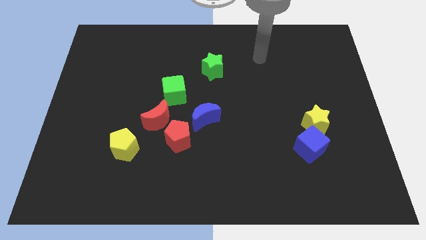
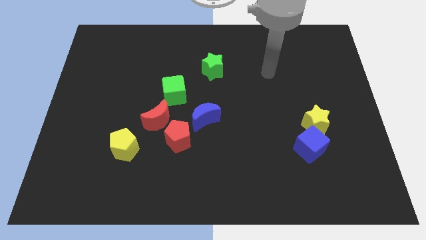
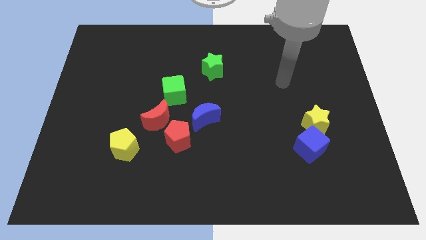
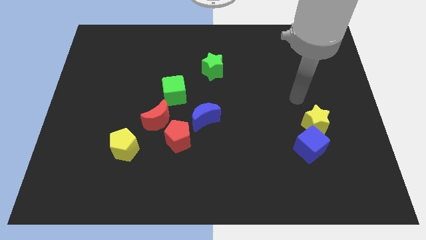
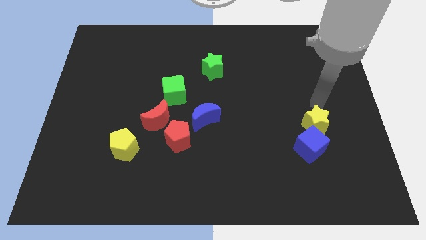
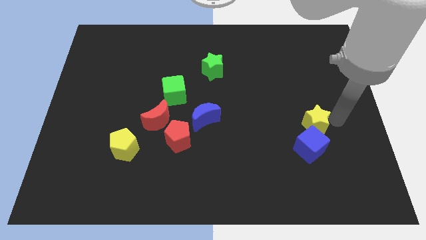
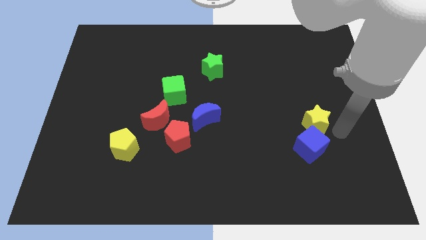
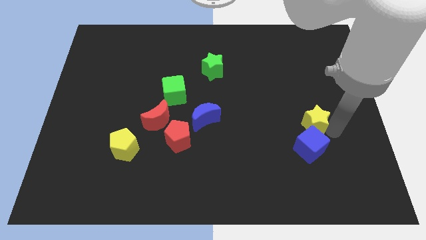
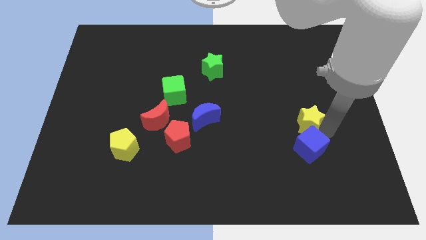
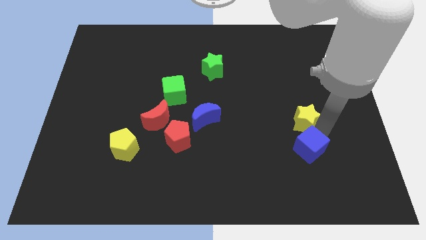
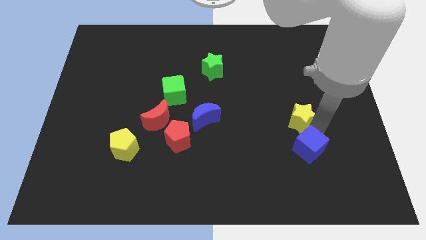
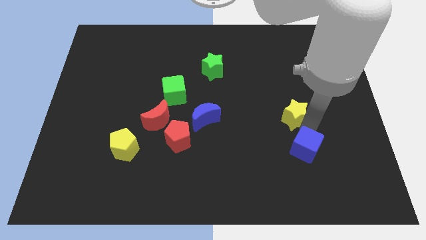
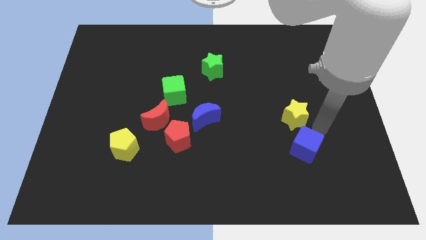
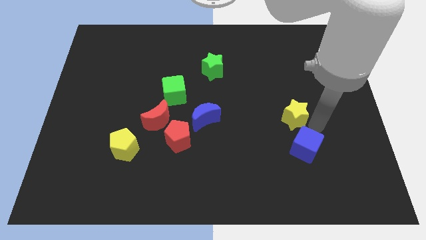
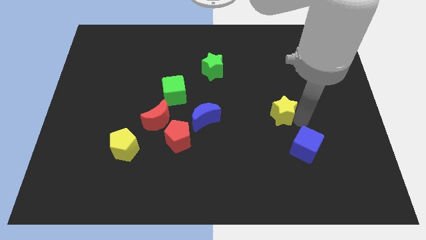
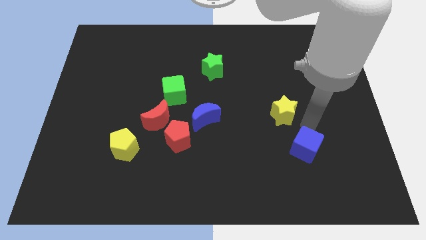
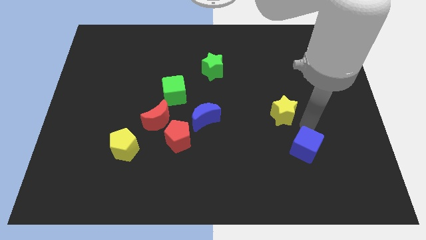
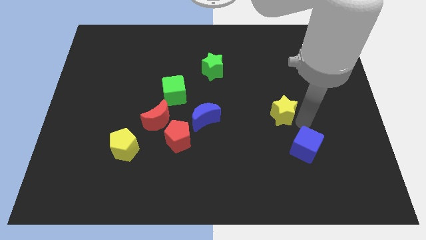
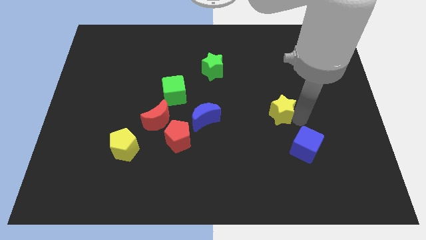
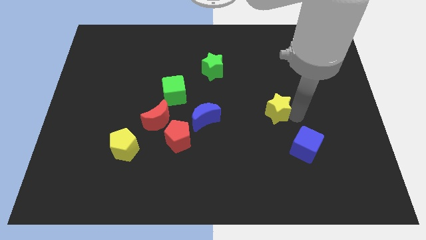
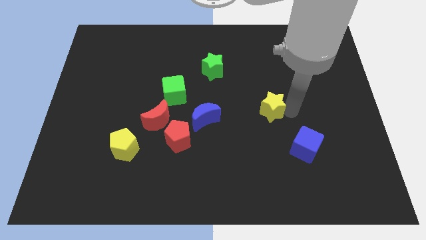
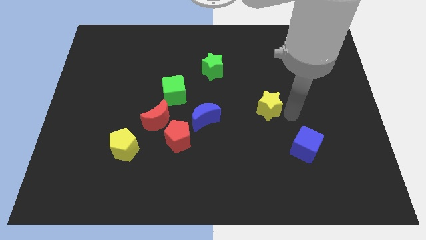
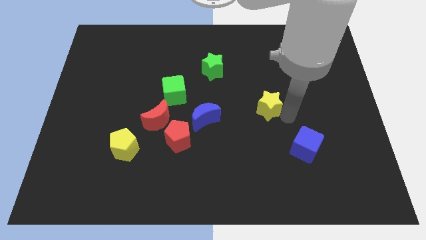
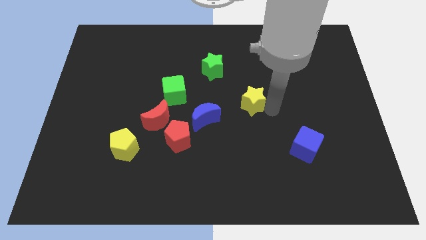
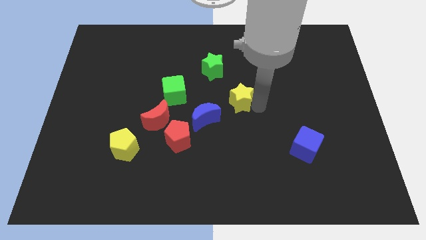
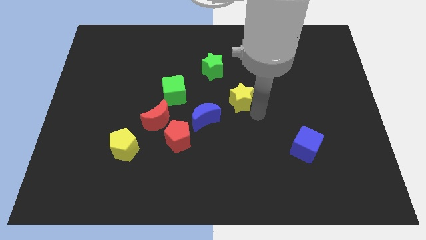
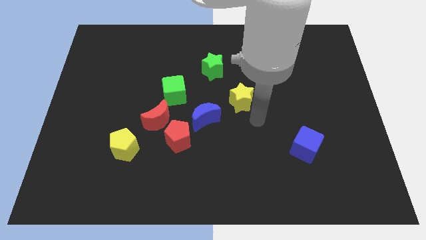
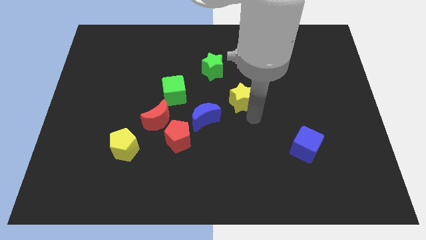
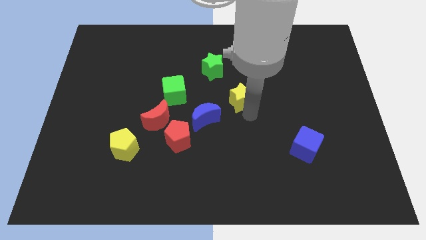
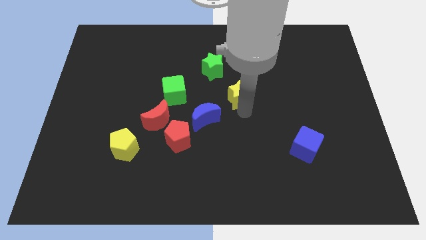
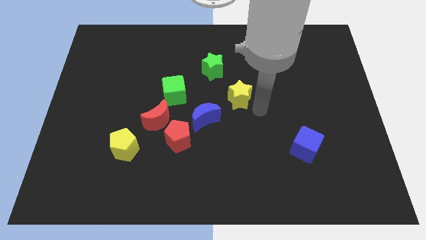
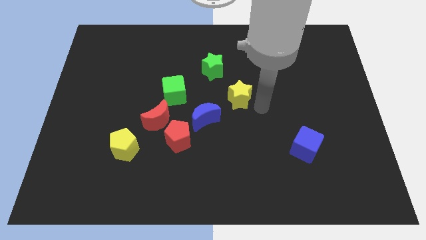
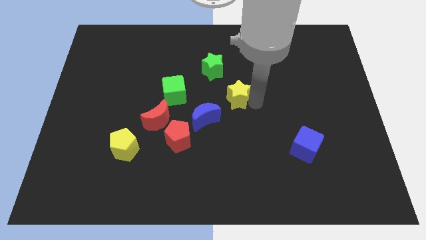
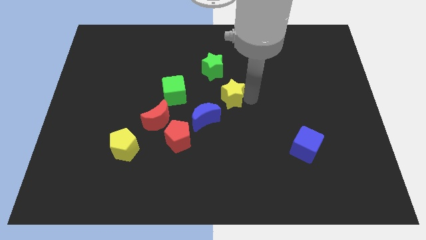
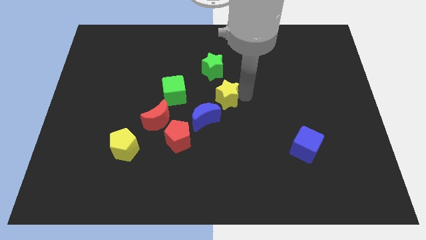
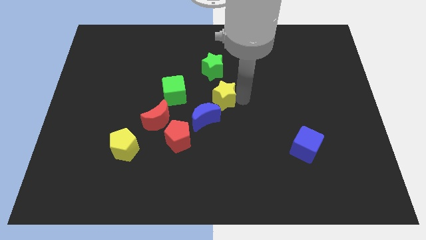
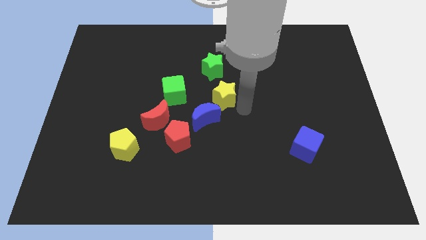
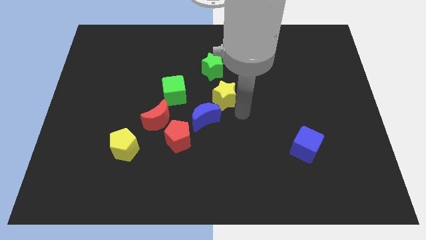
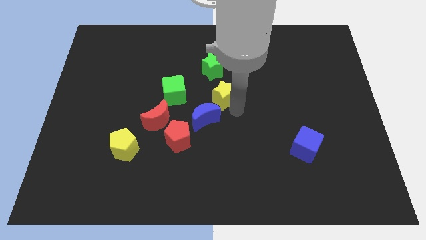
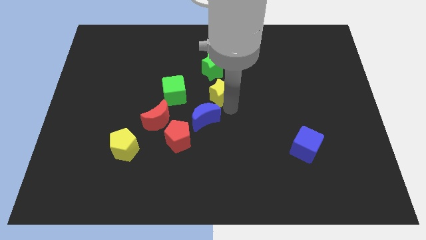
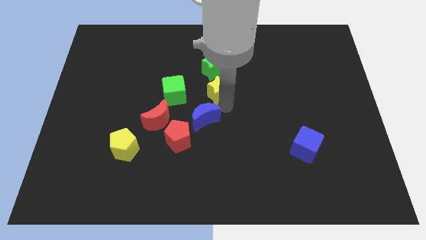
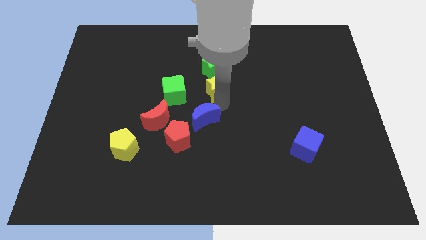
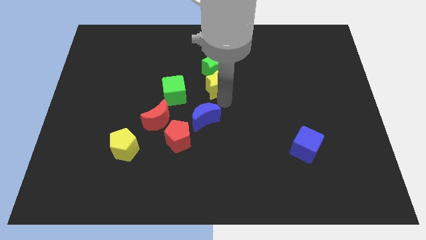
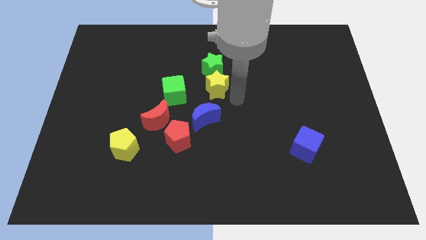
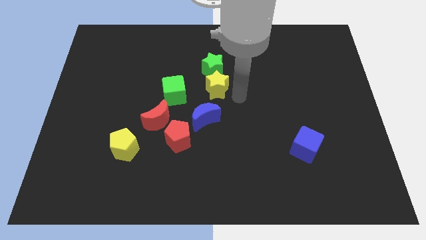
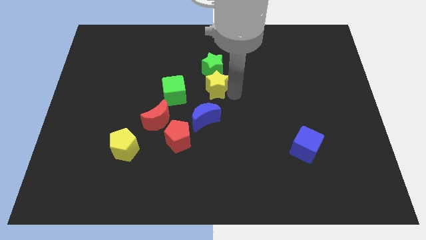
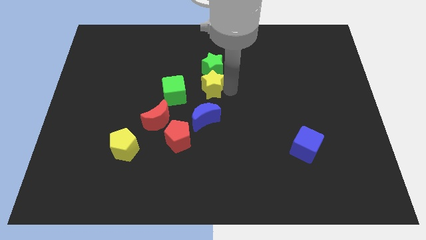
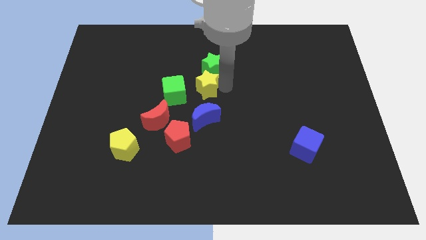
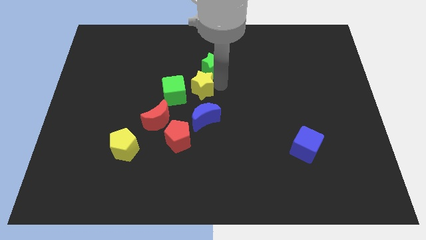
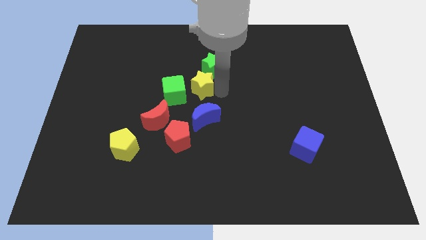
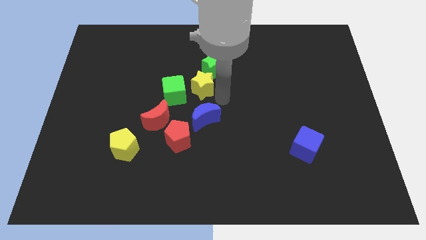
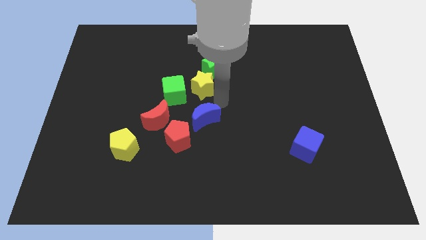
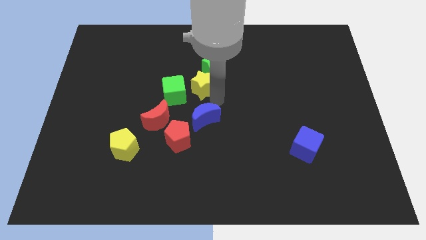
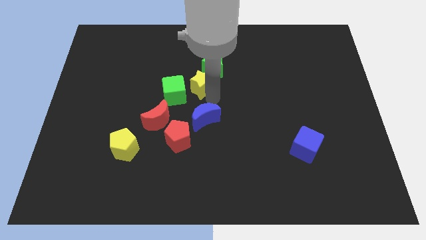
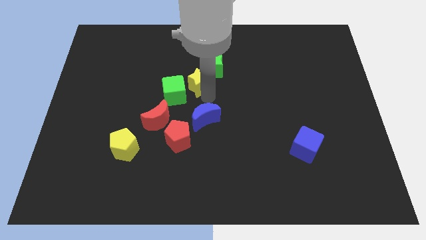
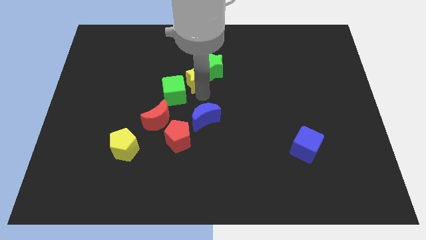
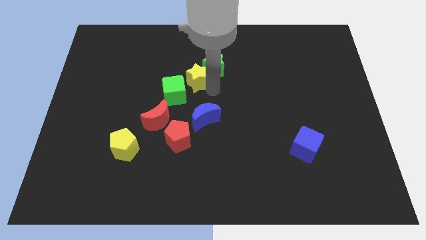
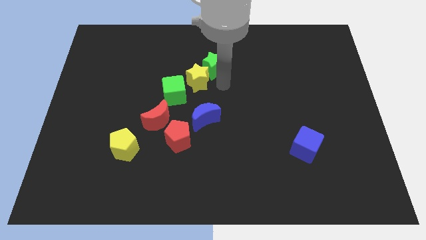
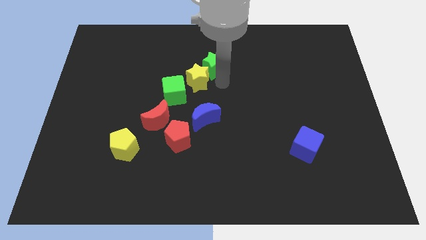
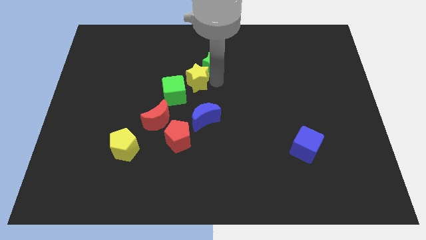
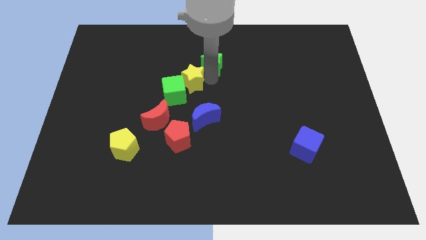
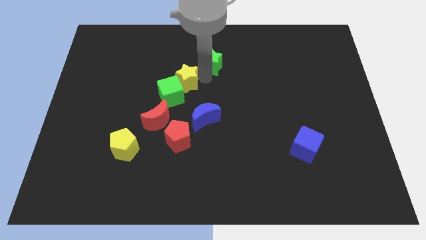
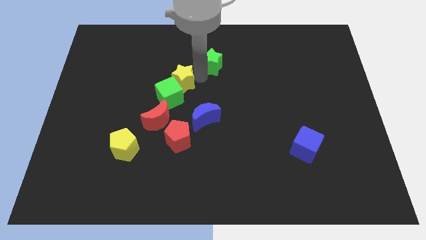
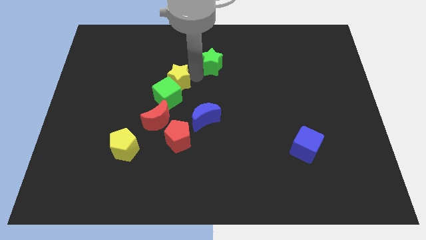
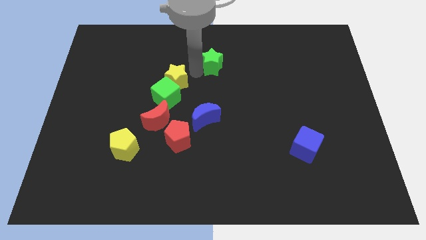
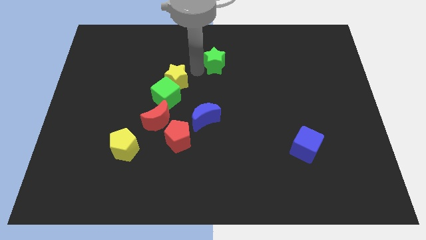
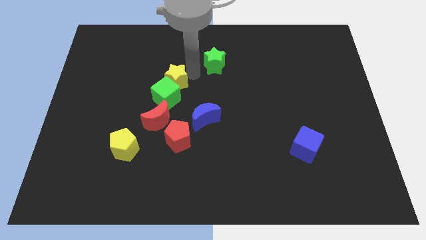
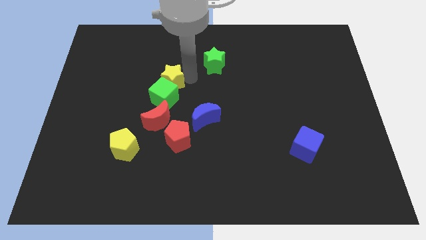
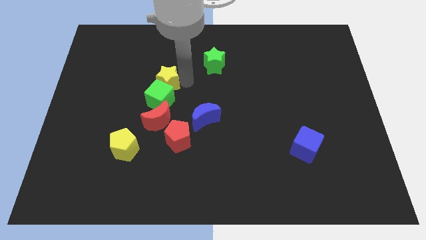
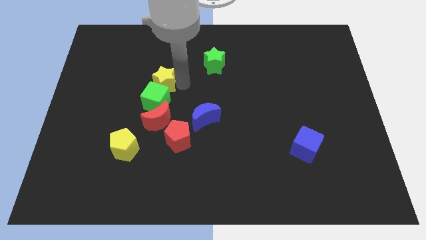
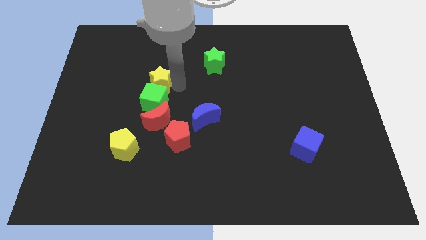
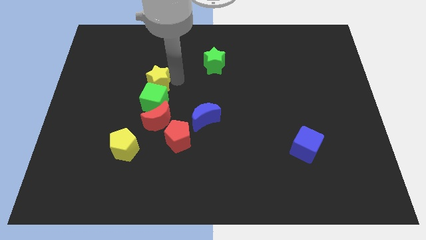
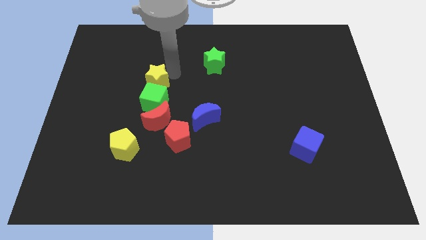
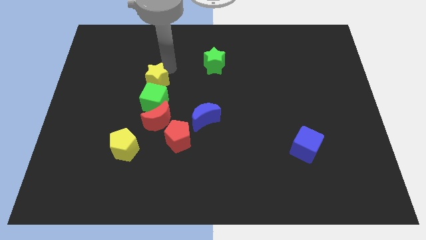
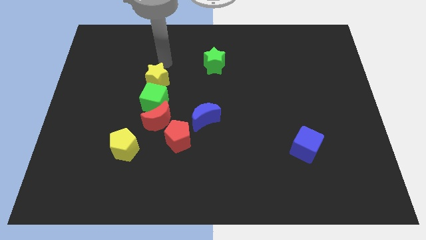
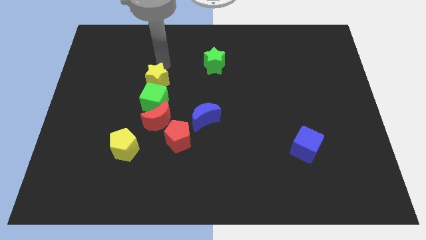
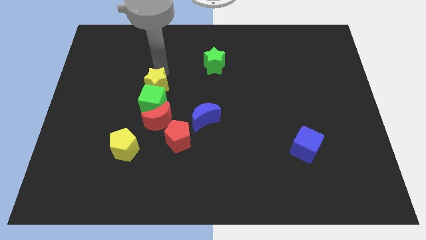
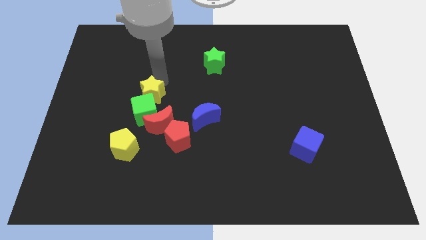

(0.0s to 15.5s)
put the yellow star diagonally up and to the left of the red moon
